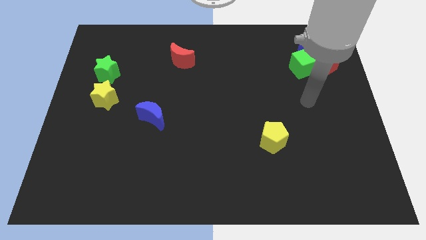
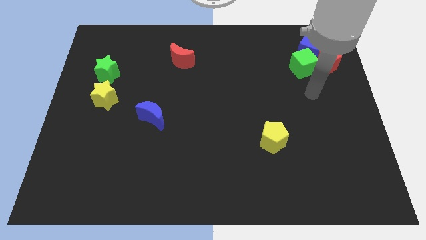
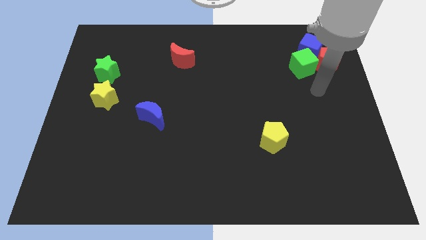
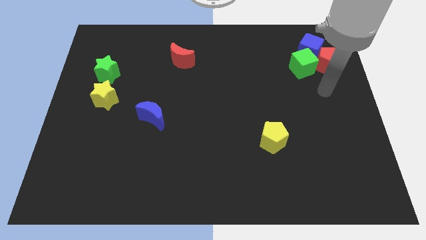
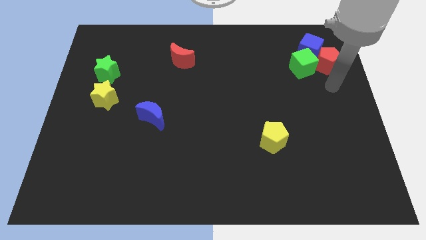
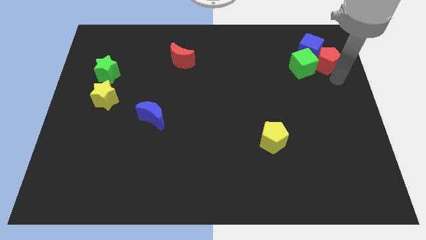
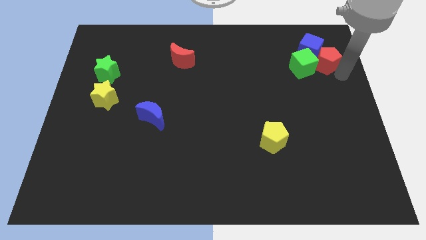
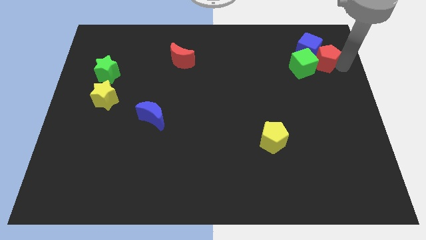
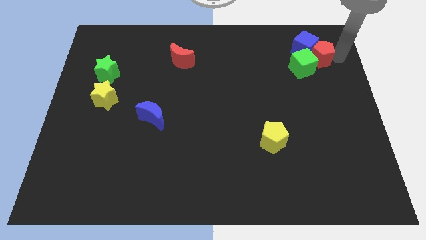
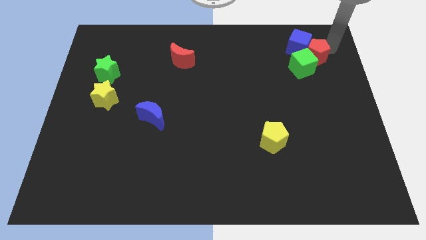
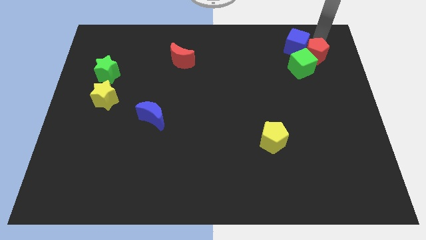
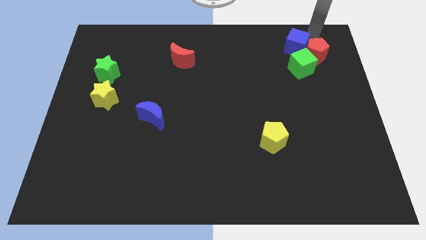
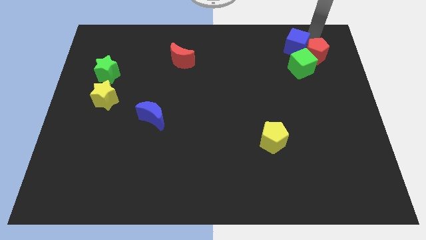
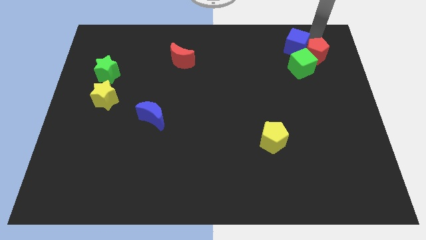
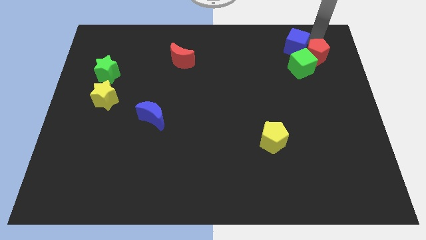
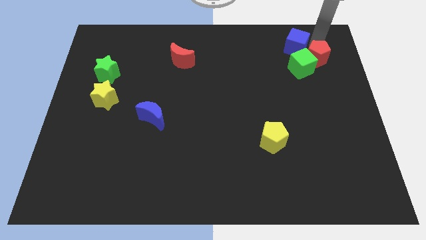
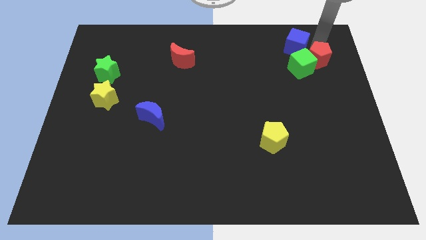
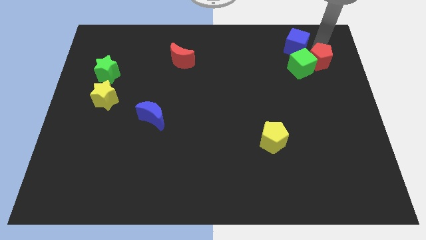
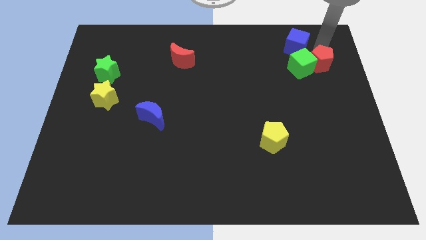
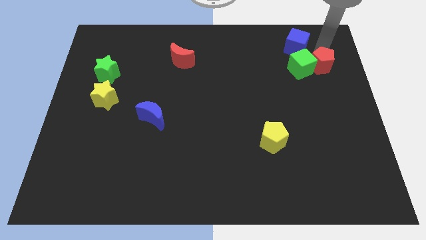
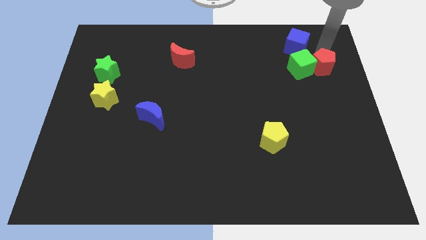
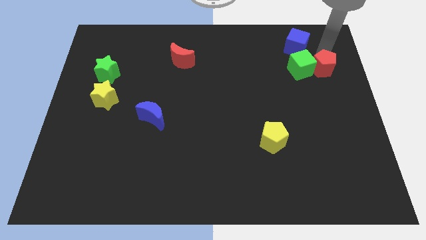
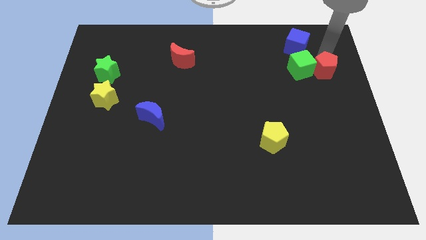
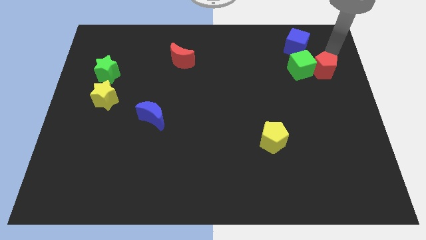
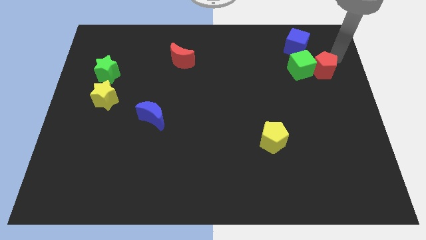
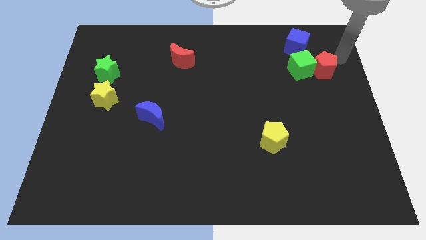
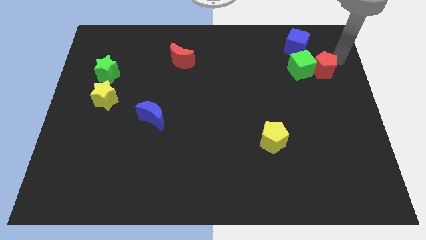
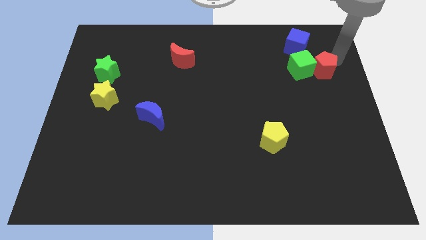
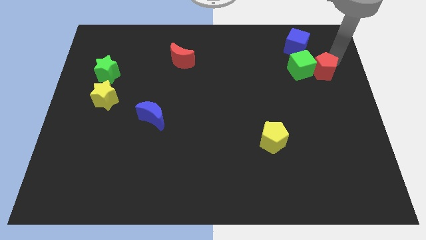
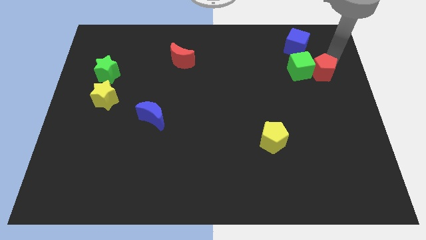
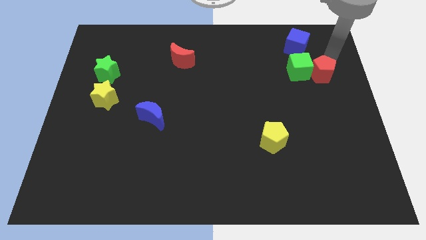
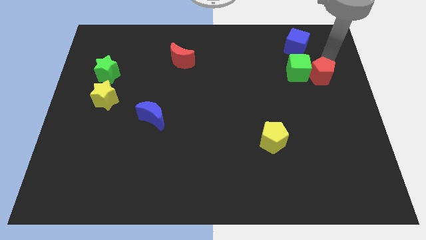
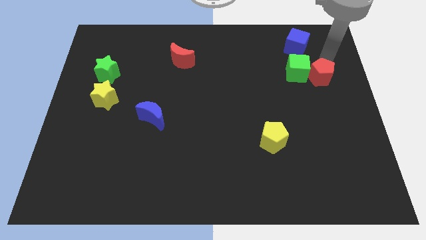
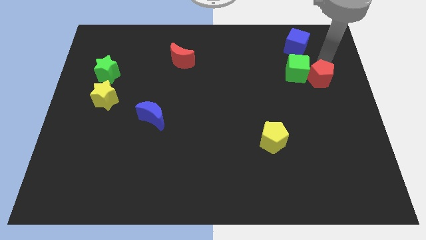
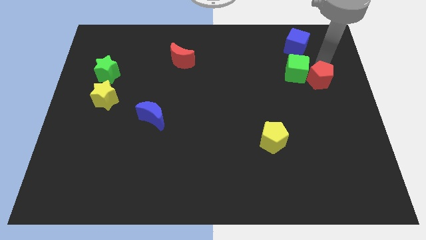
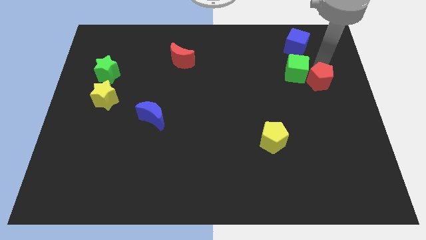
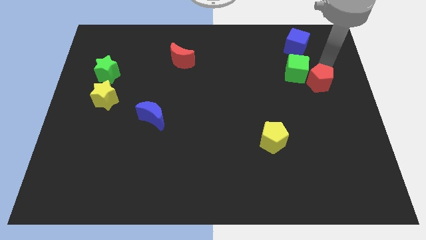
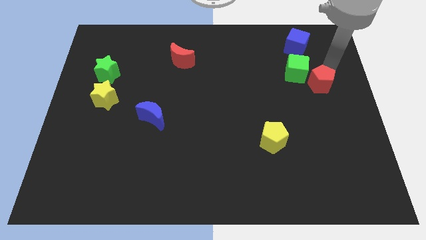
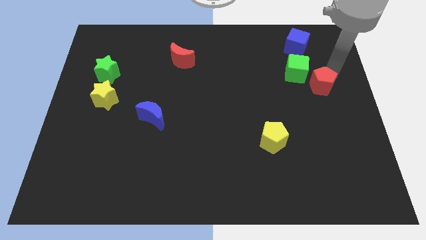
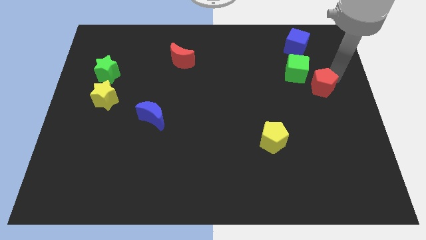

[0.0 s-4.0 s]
move the red pentagon a bit diagonally downwards and left

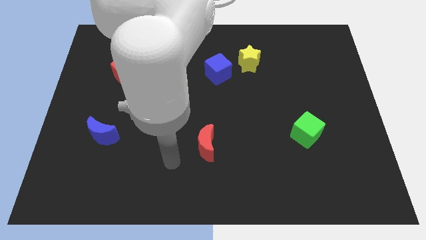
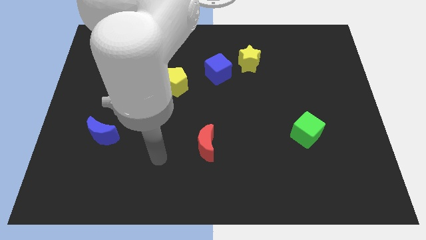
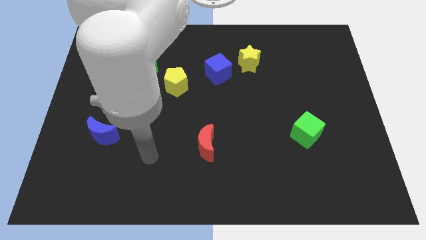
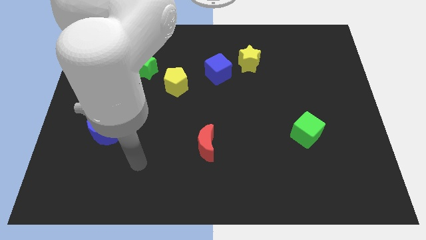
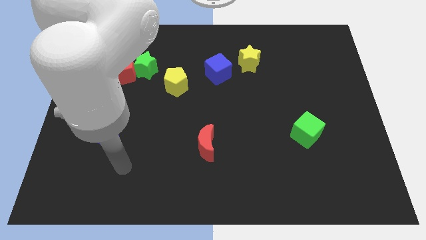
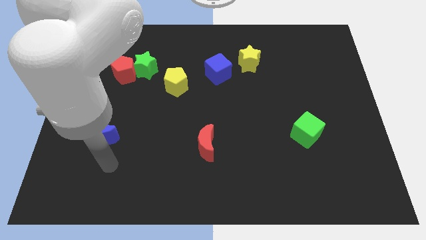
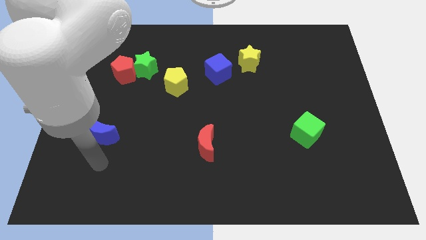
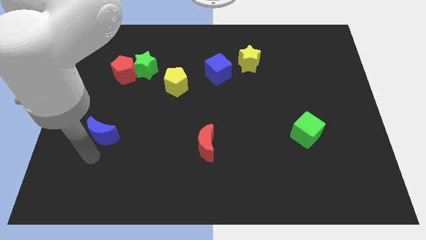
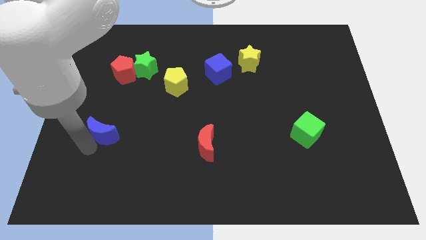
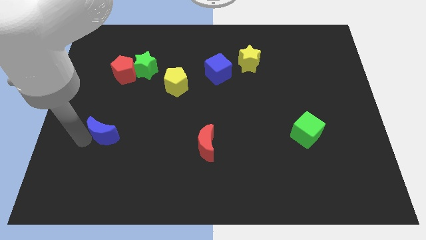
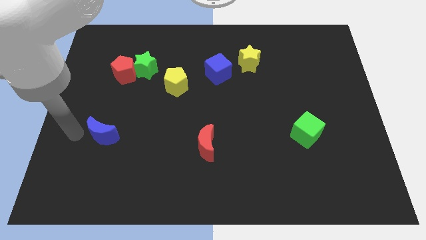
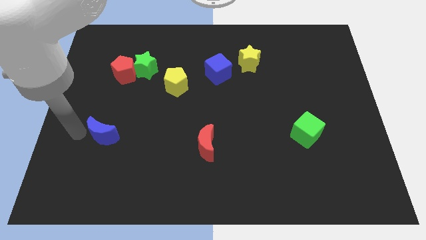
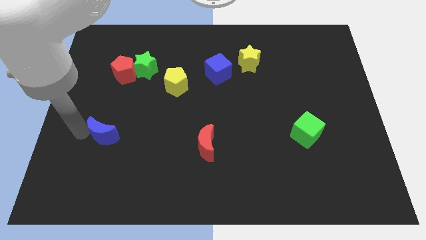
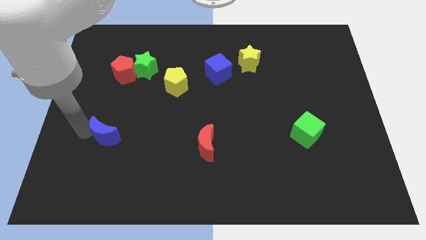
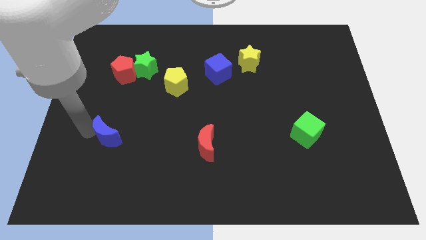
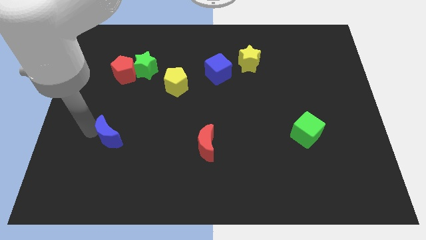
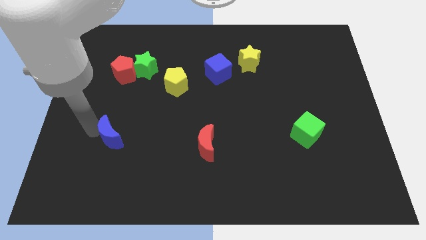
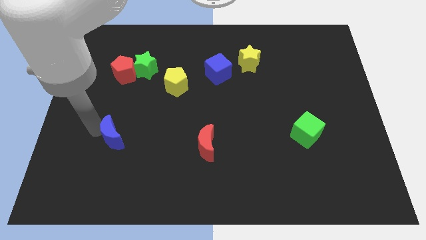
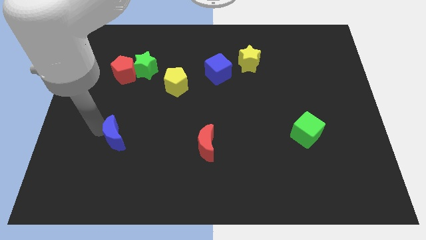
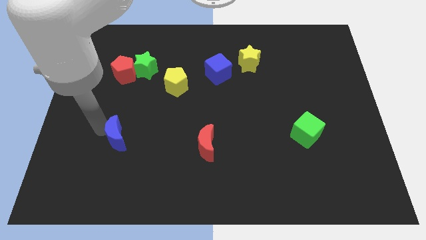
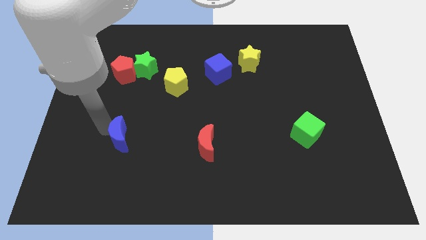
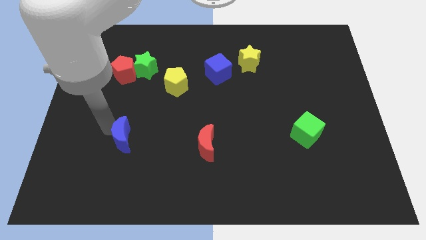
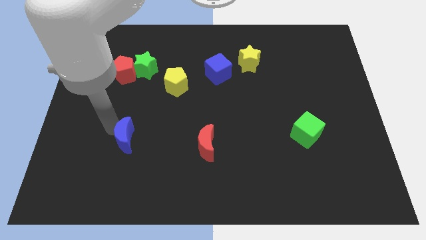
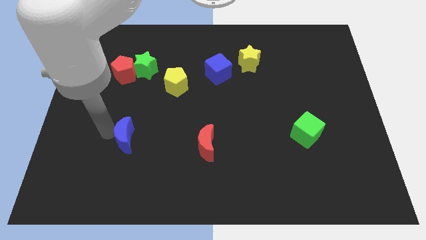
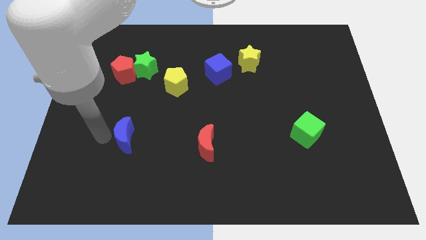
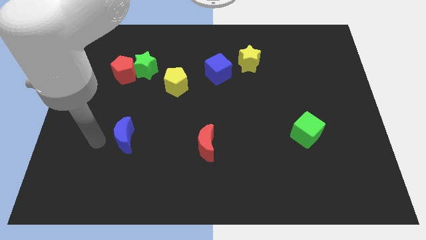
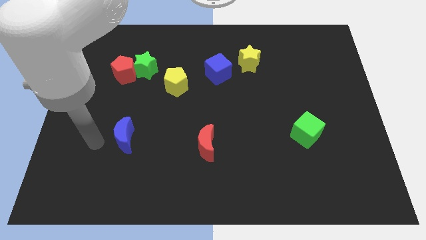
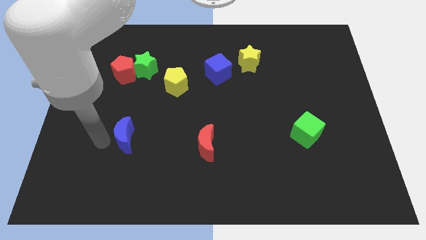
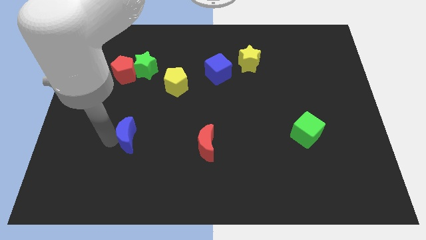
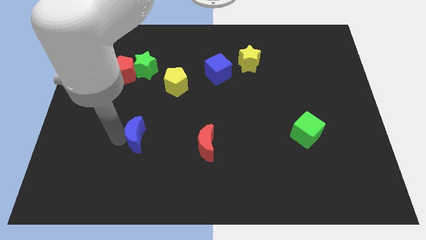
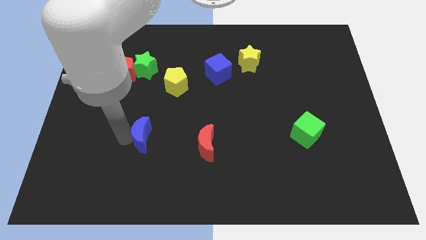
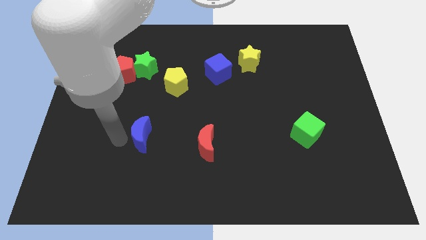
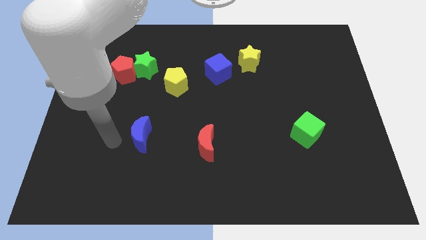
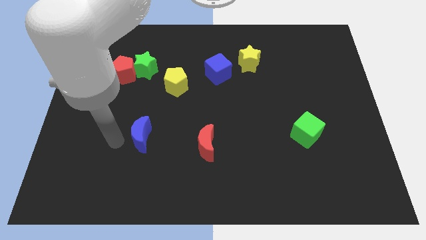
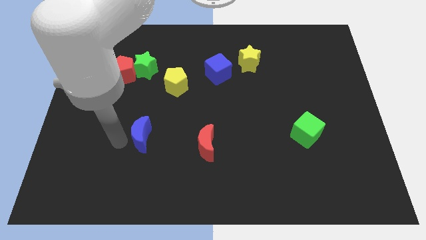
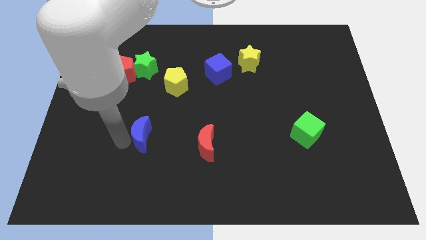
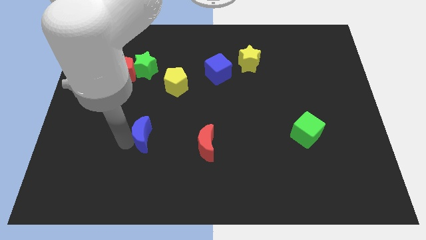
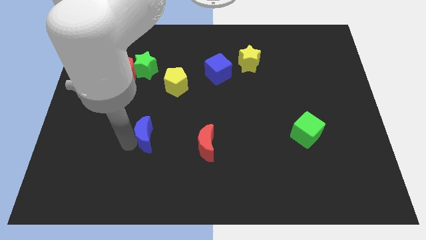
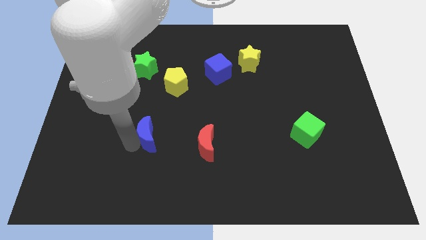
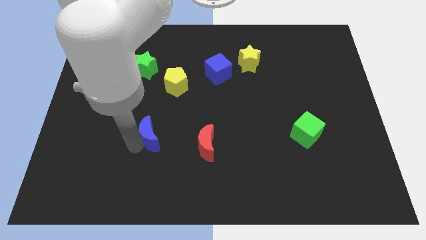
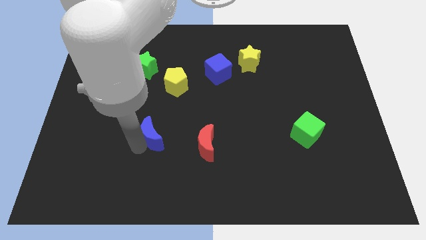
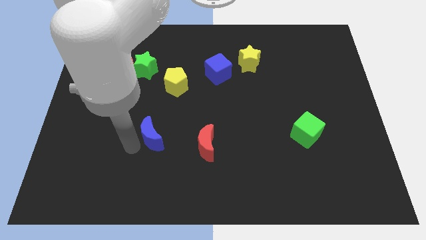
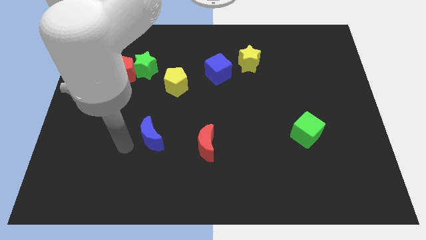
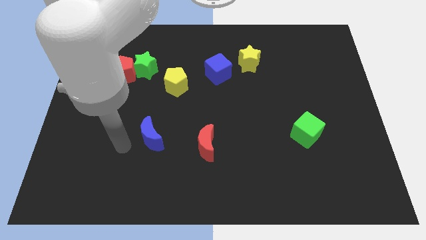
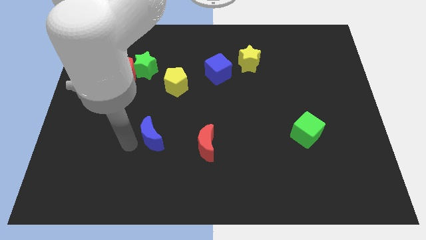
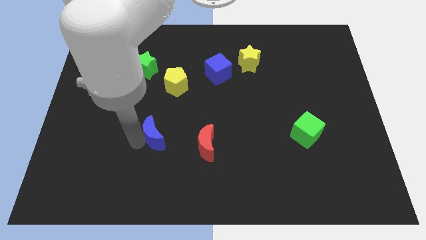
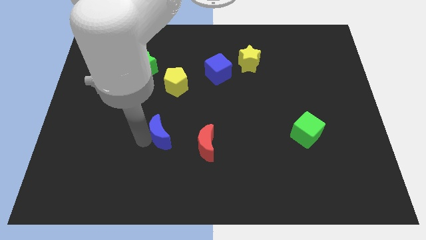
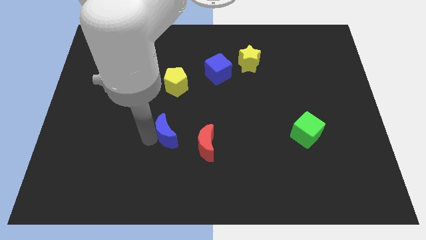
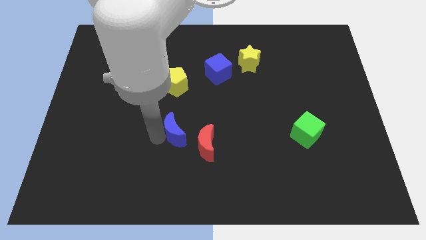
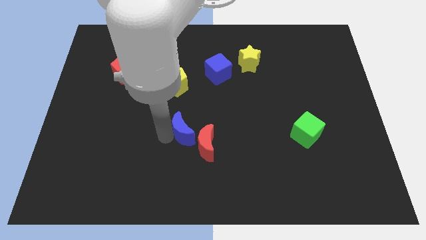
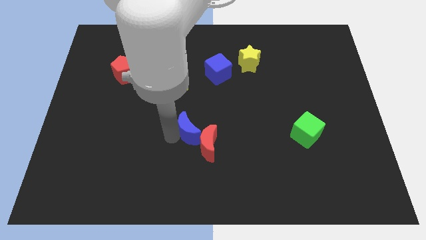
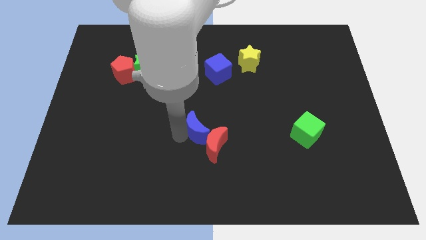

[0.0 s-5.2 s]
slide the blue moon to the right
